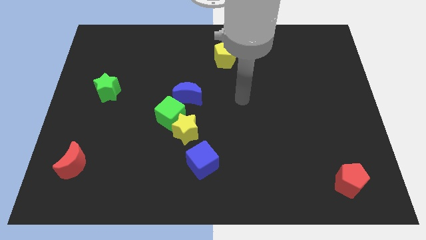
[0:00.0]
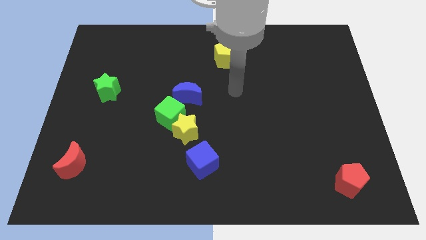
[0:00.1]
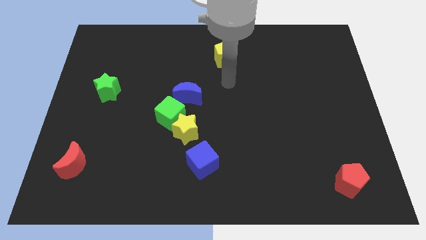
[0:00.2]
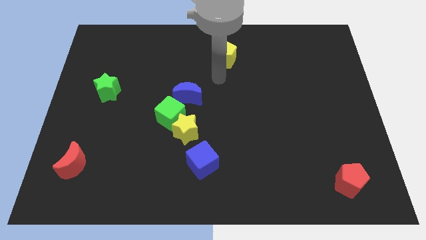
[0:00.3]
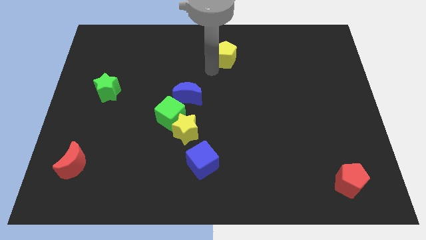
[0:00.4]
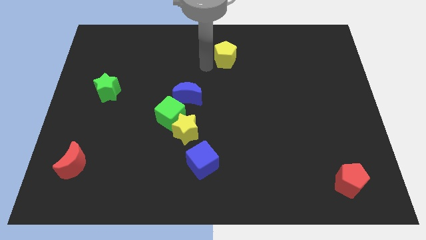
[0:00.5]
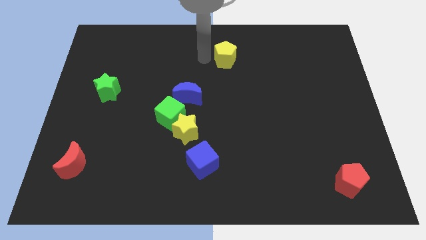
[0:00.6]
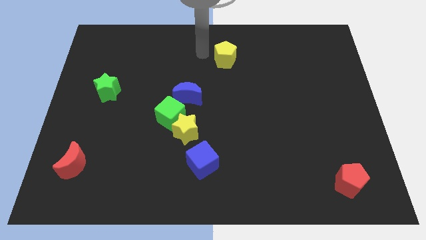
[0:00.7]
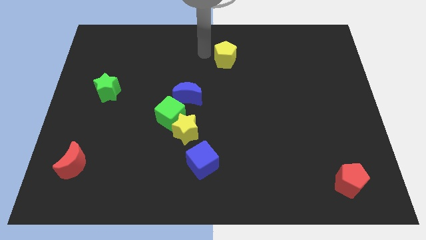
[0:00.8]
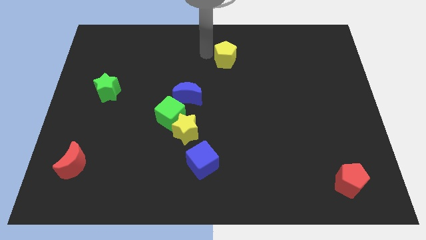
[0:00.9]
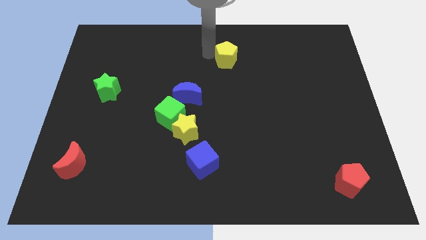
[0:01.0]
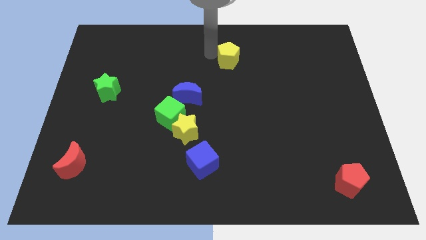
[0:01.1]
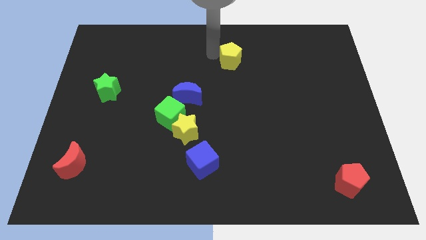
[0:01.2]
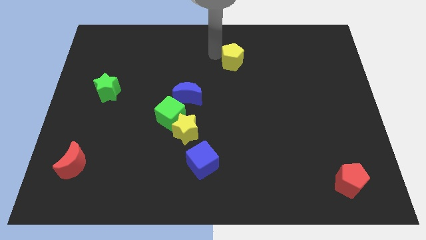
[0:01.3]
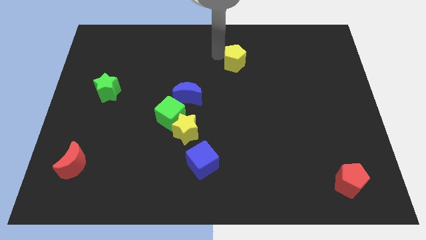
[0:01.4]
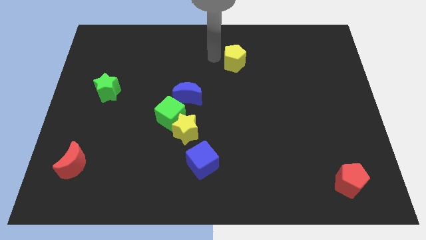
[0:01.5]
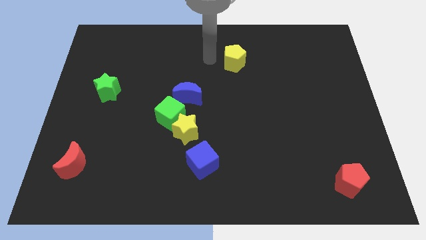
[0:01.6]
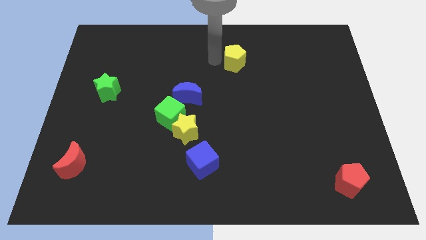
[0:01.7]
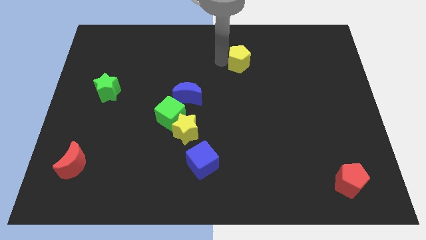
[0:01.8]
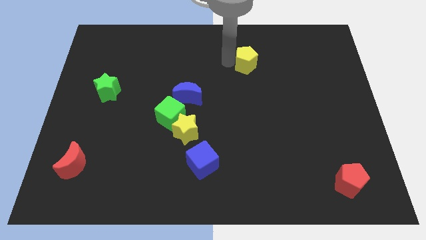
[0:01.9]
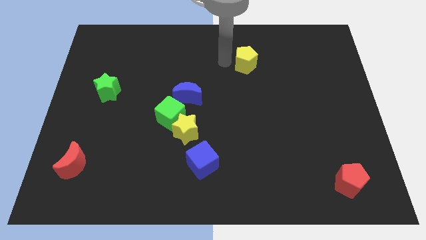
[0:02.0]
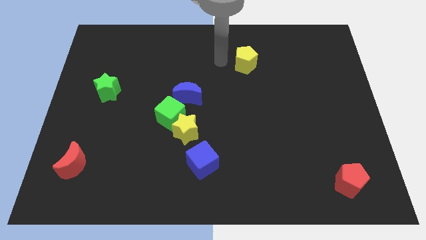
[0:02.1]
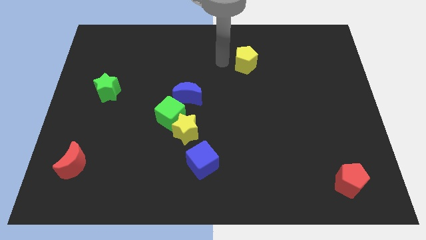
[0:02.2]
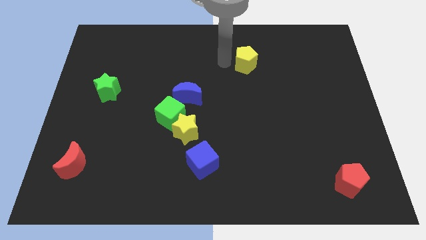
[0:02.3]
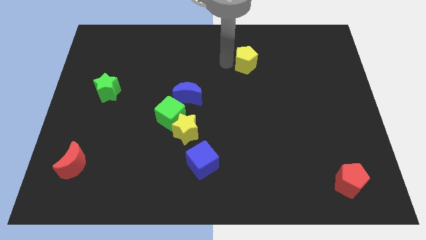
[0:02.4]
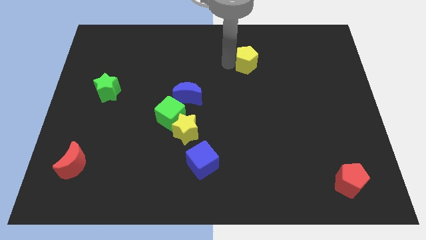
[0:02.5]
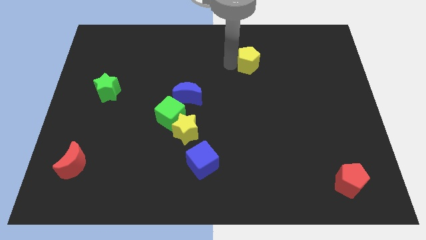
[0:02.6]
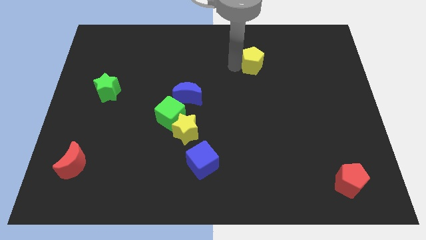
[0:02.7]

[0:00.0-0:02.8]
slide the yellow pentagon a little right

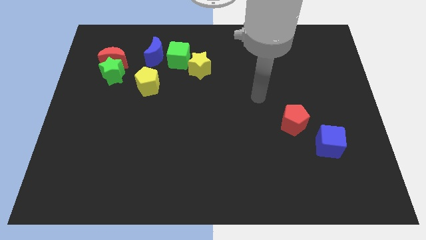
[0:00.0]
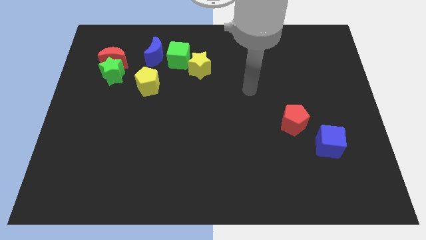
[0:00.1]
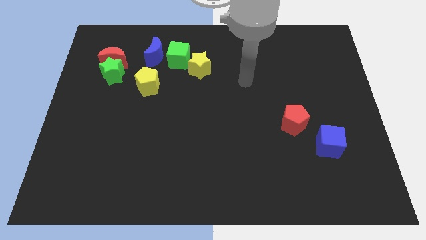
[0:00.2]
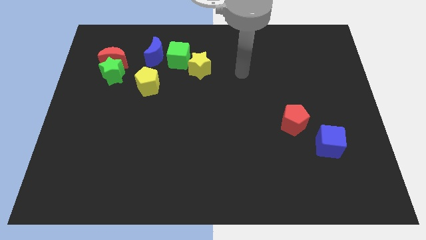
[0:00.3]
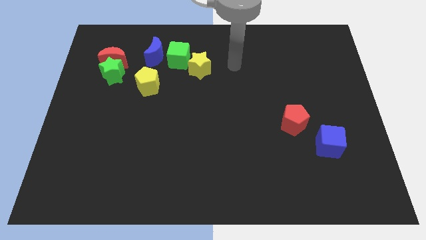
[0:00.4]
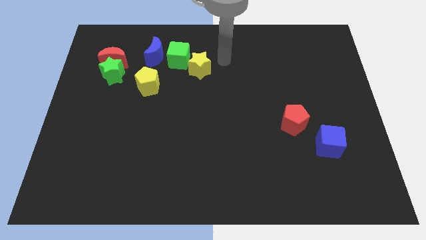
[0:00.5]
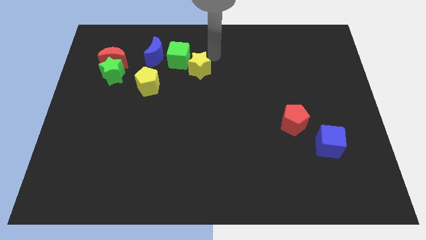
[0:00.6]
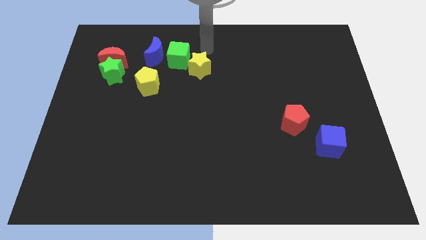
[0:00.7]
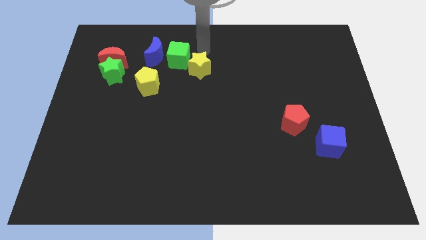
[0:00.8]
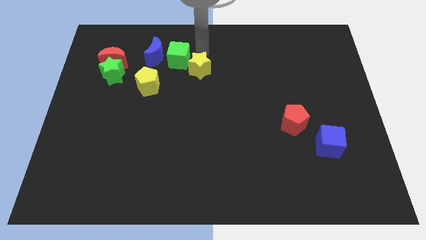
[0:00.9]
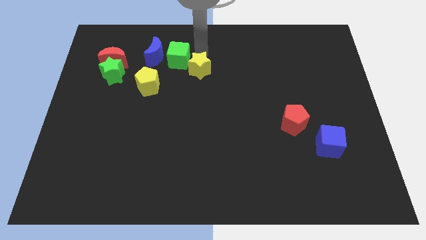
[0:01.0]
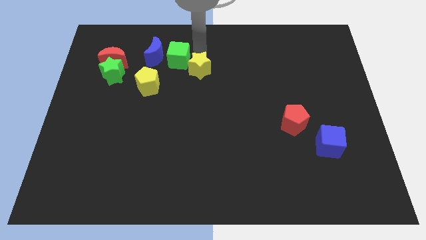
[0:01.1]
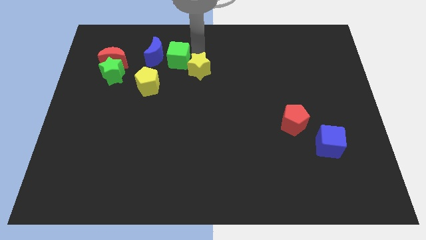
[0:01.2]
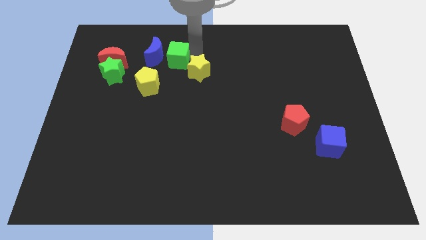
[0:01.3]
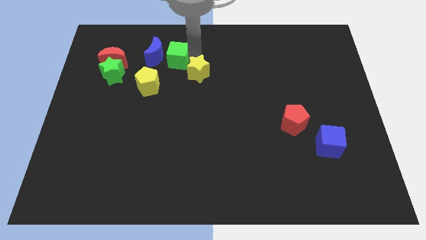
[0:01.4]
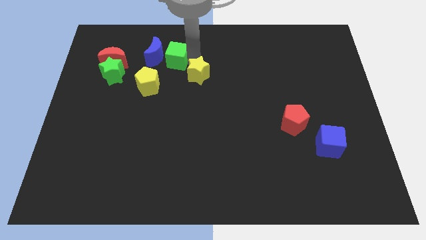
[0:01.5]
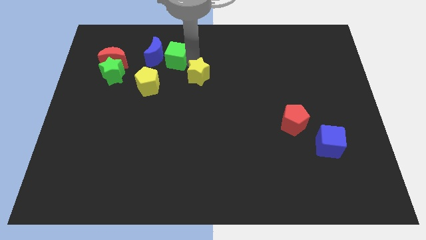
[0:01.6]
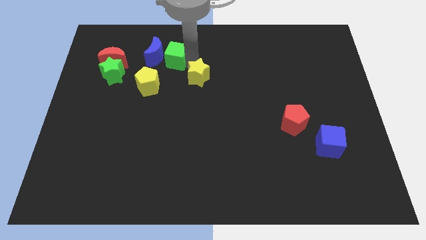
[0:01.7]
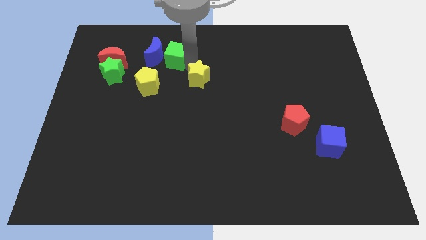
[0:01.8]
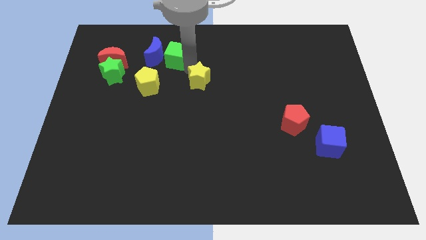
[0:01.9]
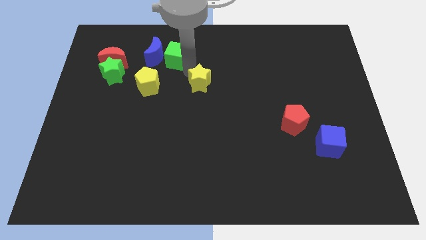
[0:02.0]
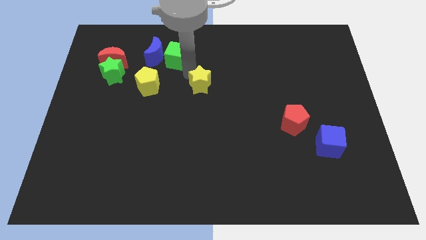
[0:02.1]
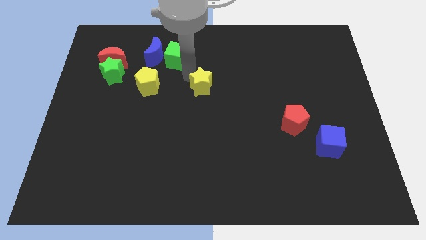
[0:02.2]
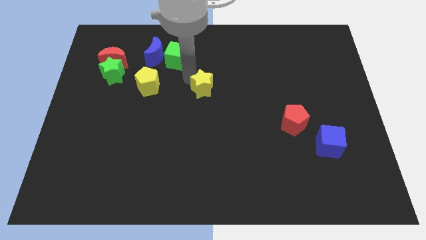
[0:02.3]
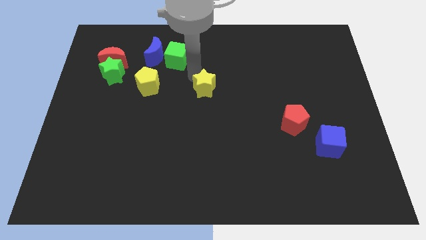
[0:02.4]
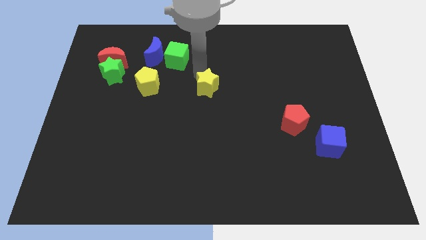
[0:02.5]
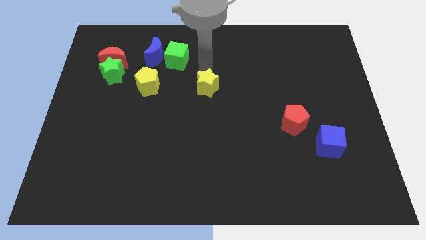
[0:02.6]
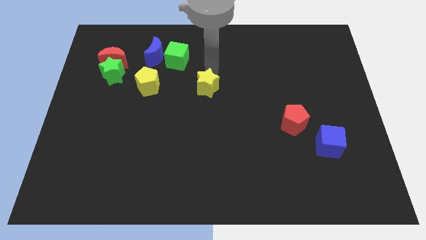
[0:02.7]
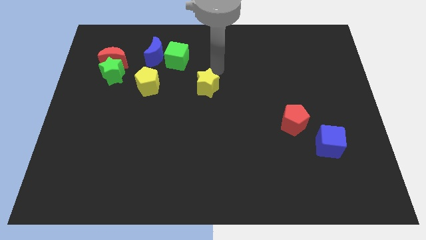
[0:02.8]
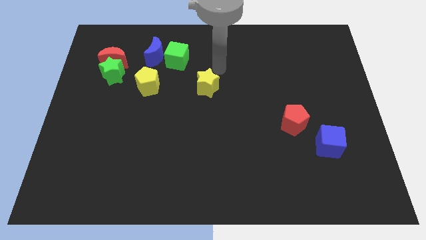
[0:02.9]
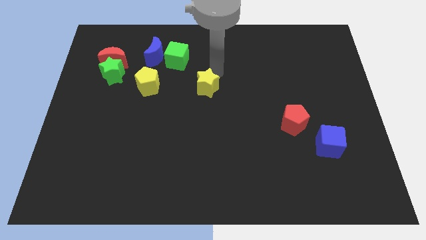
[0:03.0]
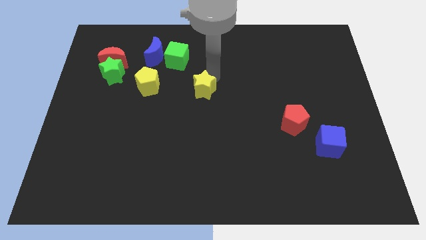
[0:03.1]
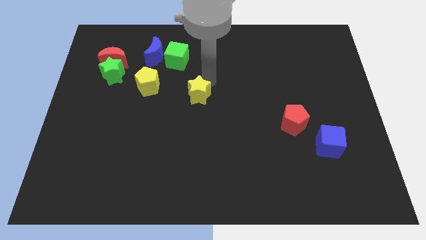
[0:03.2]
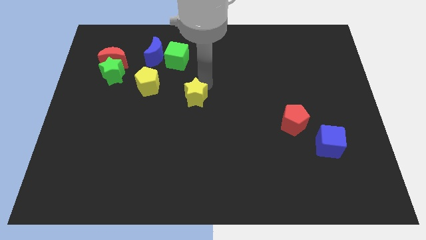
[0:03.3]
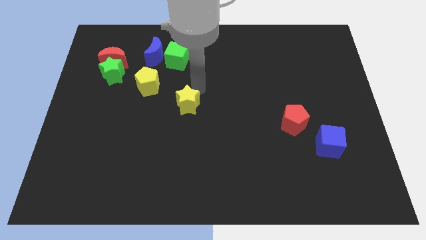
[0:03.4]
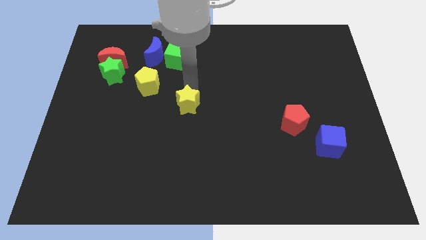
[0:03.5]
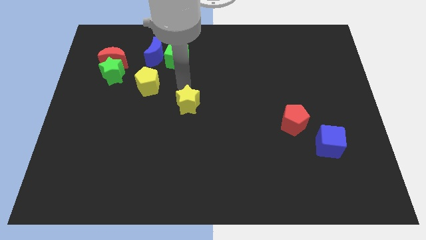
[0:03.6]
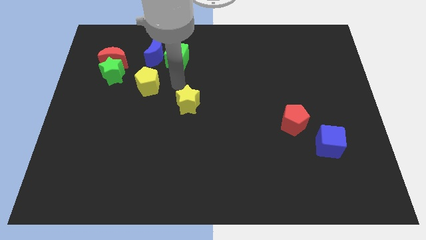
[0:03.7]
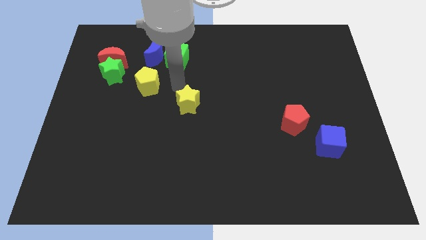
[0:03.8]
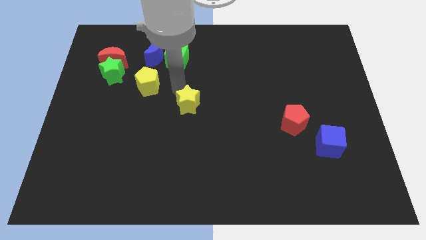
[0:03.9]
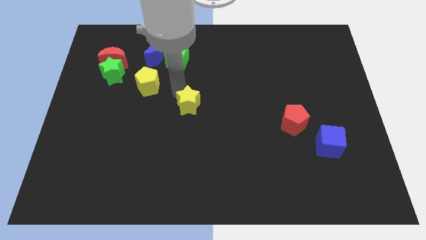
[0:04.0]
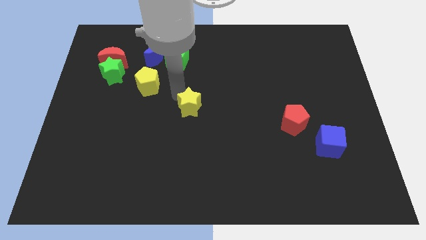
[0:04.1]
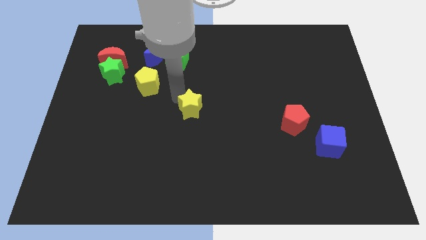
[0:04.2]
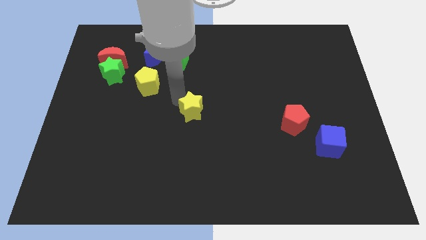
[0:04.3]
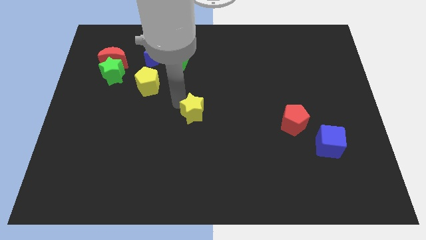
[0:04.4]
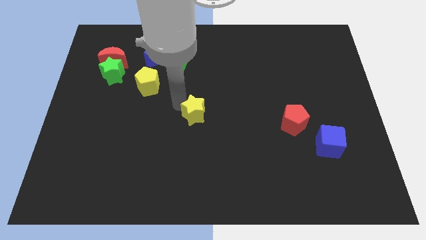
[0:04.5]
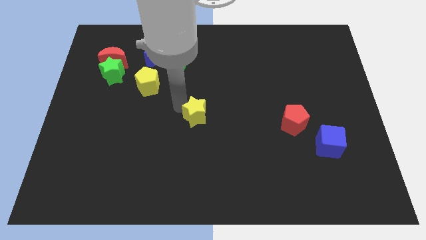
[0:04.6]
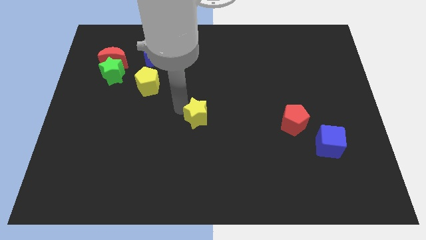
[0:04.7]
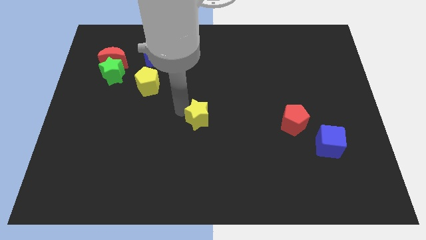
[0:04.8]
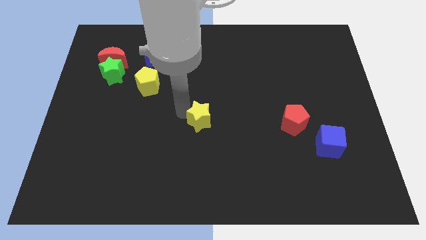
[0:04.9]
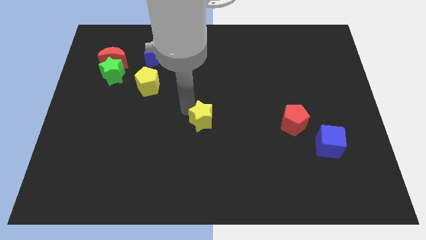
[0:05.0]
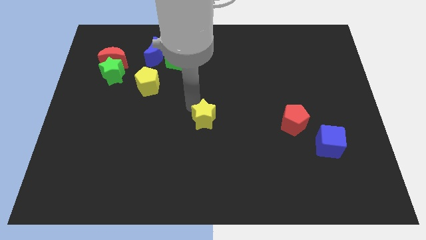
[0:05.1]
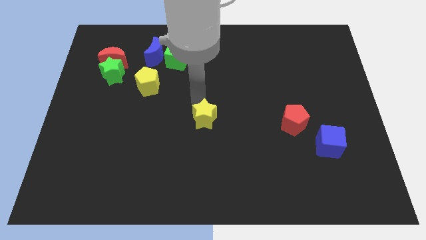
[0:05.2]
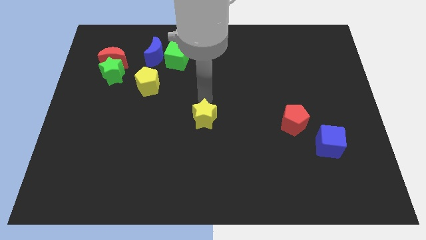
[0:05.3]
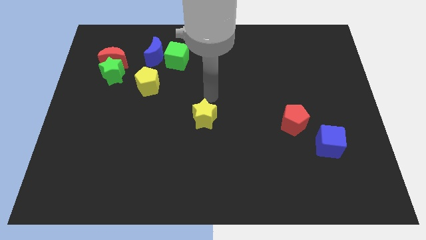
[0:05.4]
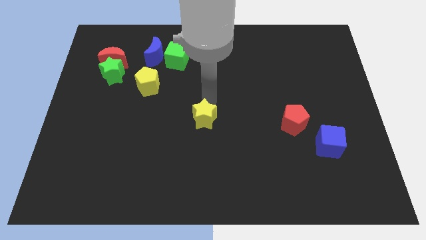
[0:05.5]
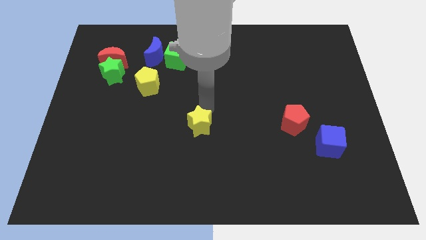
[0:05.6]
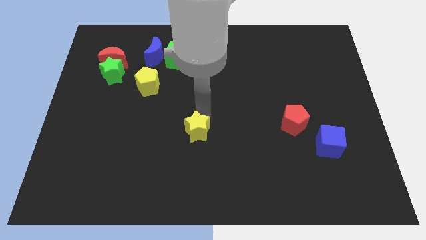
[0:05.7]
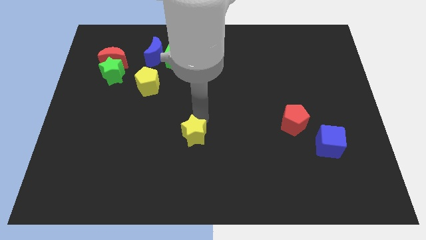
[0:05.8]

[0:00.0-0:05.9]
move the yellow star down
